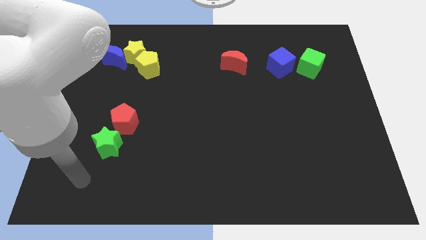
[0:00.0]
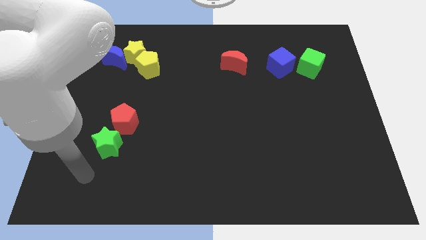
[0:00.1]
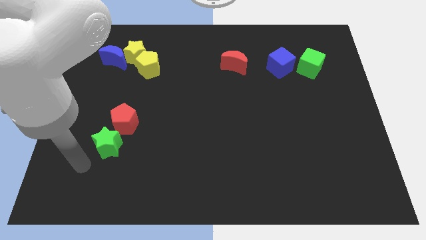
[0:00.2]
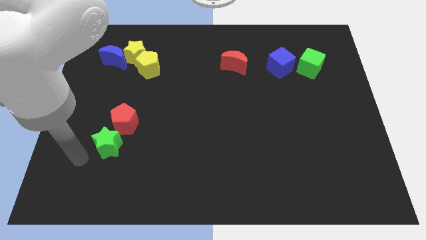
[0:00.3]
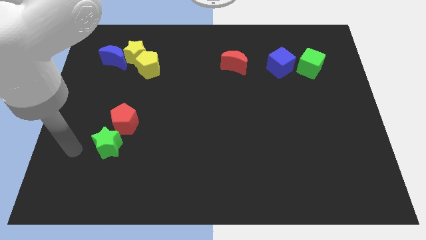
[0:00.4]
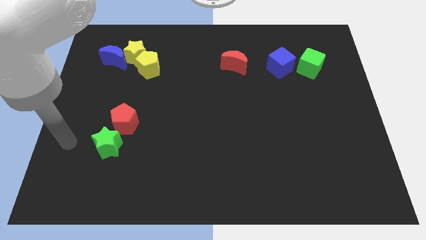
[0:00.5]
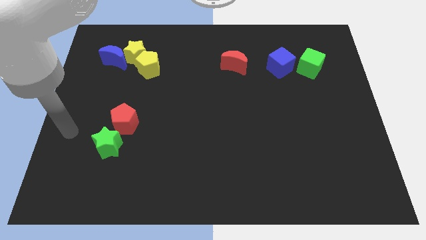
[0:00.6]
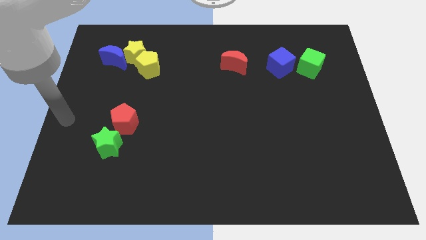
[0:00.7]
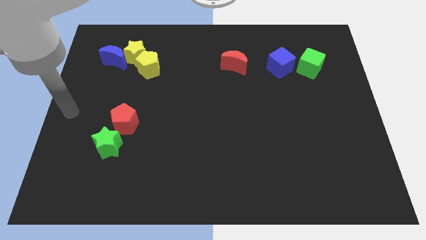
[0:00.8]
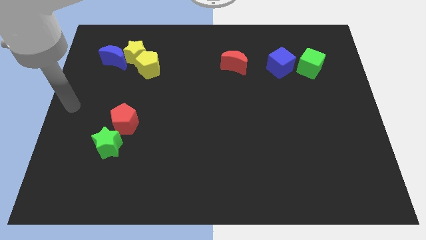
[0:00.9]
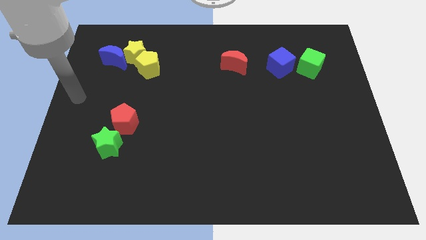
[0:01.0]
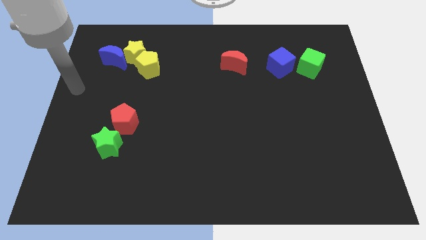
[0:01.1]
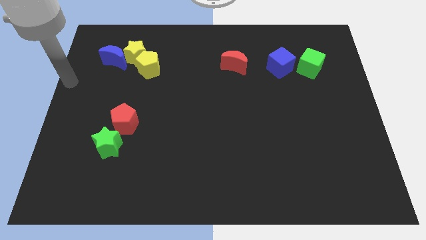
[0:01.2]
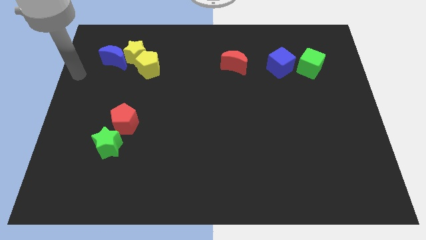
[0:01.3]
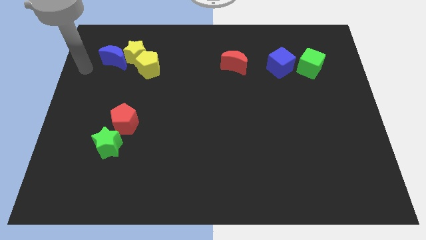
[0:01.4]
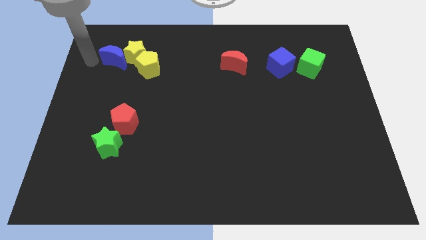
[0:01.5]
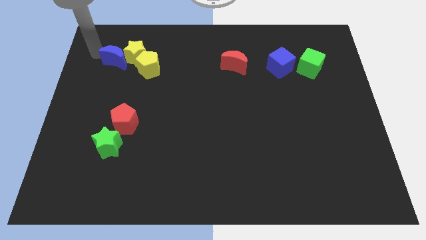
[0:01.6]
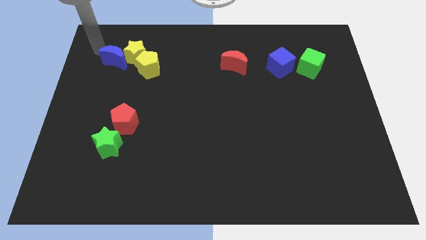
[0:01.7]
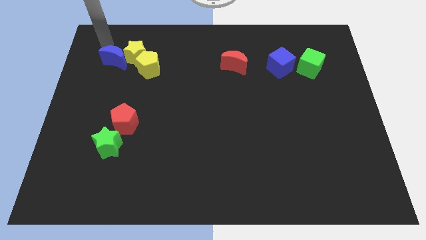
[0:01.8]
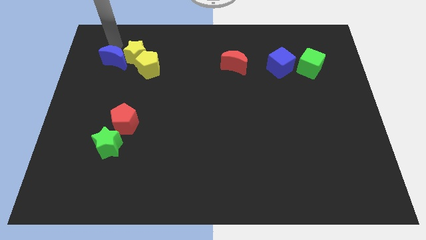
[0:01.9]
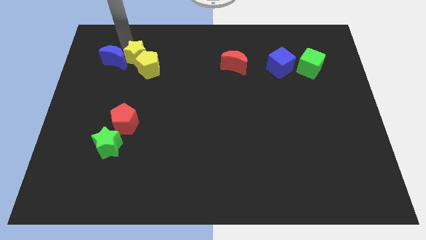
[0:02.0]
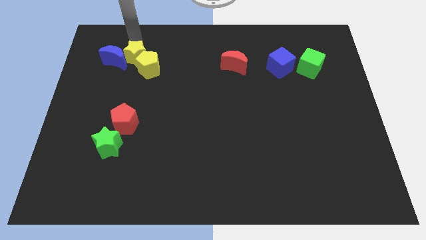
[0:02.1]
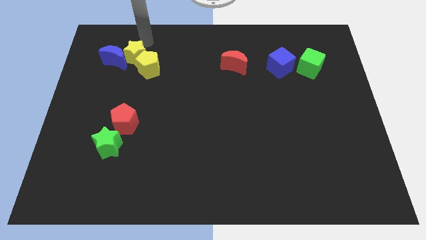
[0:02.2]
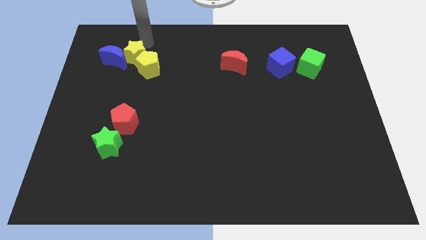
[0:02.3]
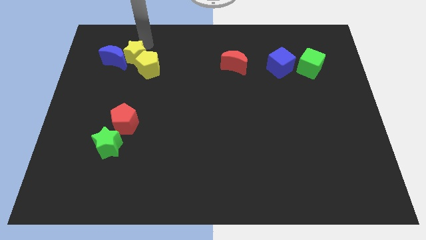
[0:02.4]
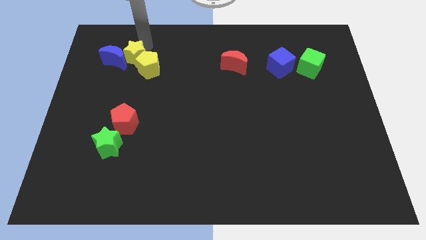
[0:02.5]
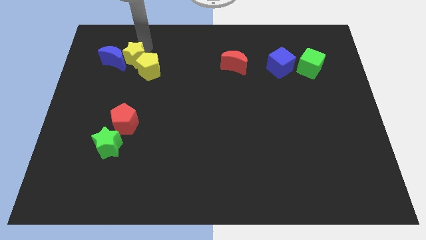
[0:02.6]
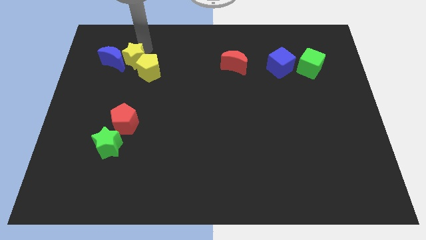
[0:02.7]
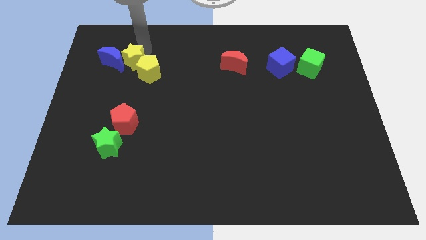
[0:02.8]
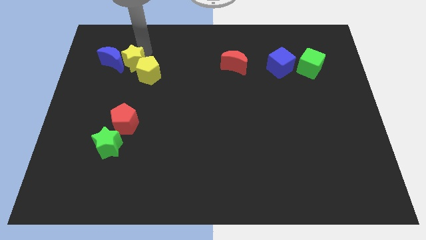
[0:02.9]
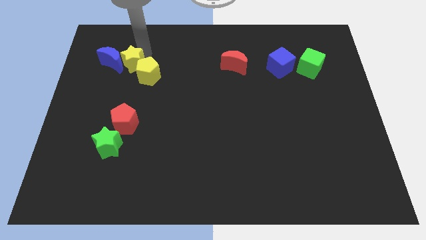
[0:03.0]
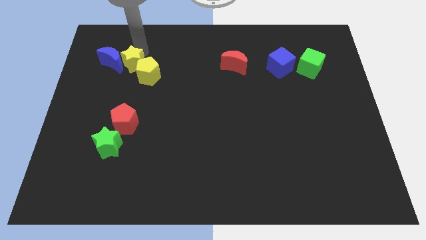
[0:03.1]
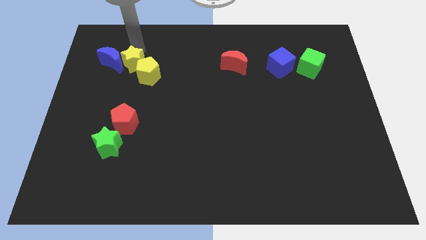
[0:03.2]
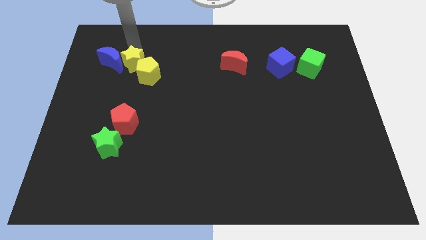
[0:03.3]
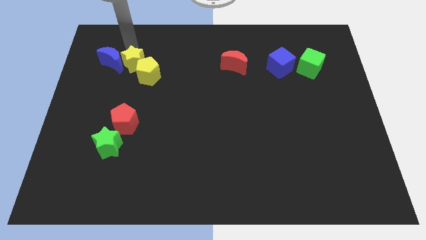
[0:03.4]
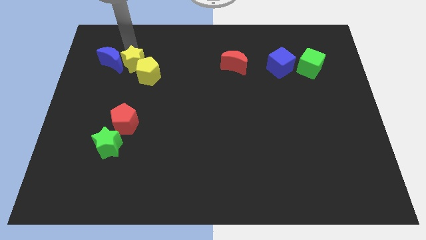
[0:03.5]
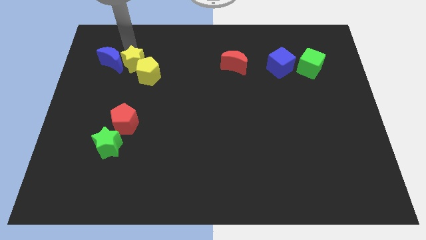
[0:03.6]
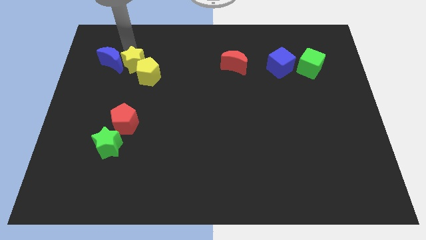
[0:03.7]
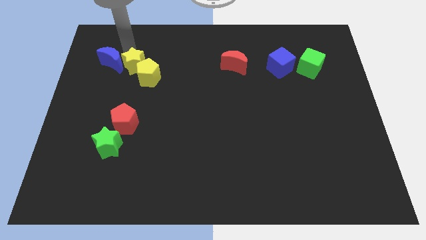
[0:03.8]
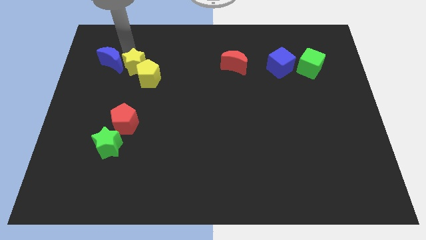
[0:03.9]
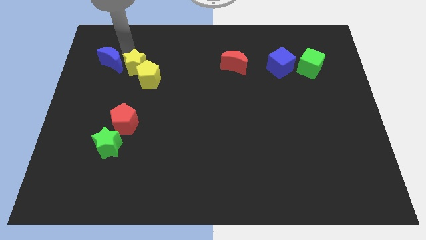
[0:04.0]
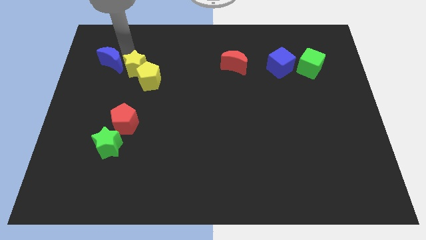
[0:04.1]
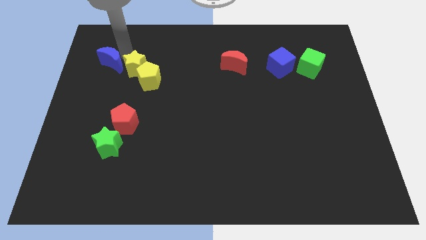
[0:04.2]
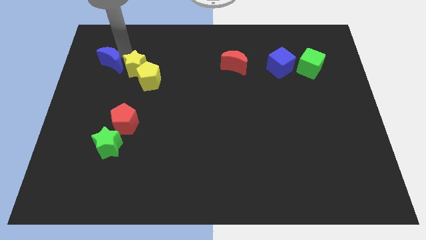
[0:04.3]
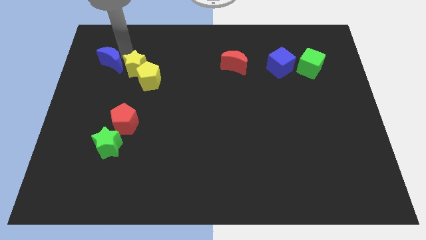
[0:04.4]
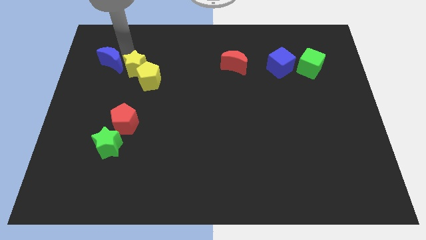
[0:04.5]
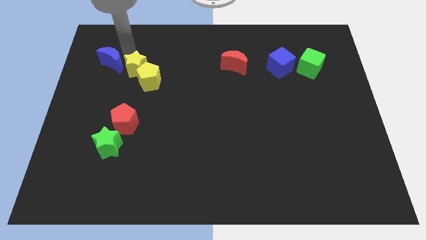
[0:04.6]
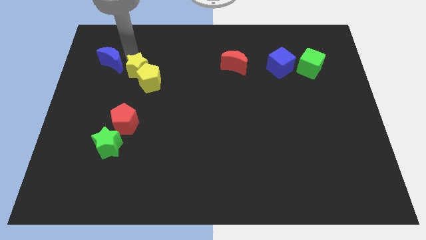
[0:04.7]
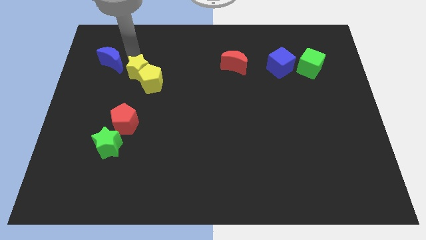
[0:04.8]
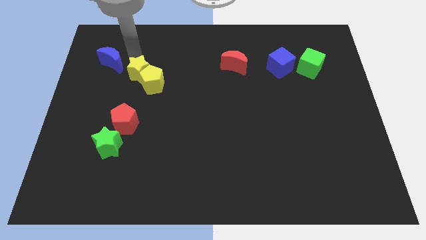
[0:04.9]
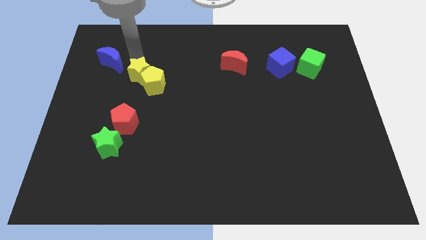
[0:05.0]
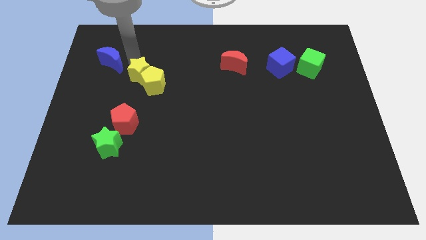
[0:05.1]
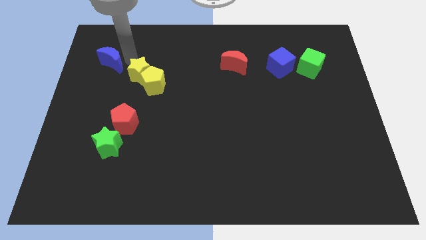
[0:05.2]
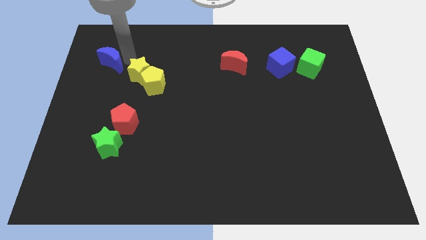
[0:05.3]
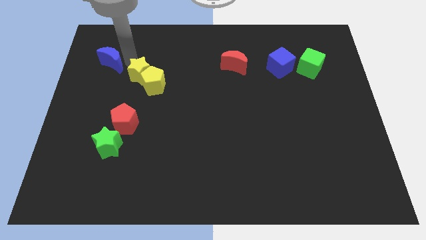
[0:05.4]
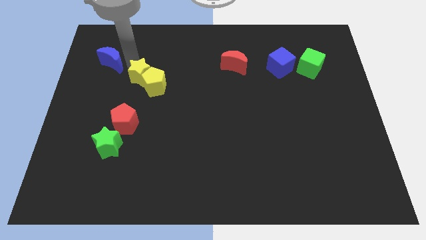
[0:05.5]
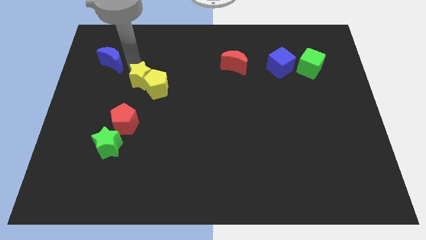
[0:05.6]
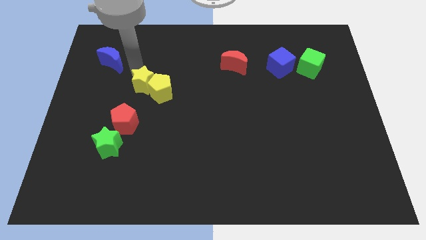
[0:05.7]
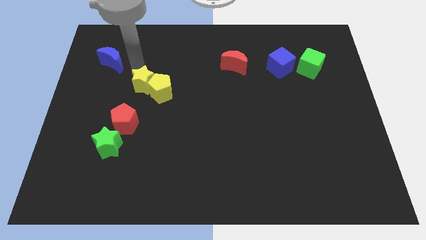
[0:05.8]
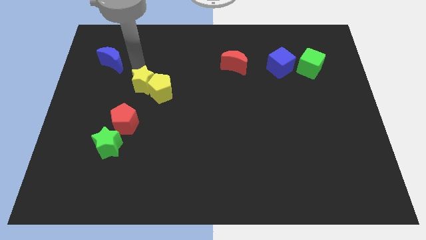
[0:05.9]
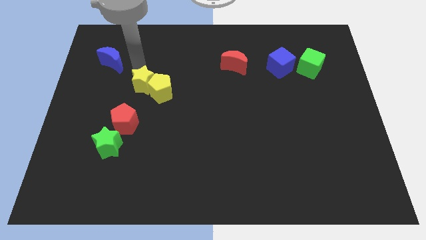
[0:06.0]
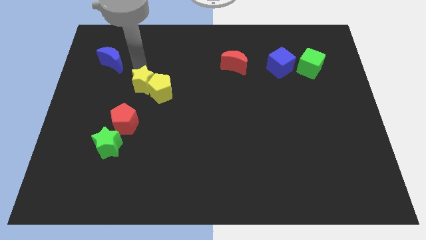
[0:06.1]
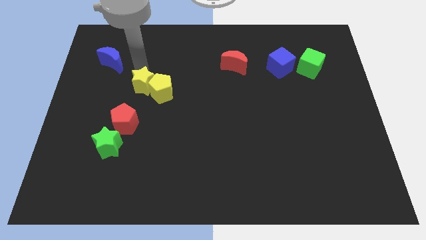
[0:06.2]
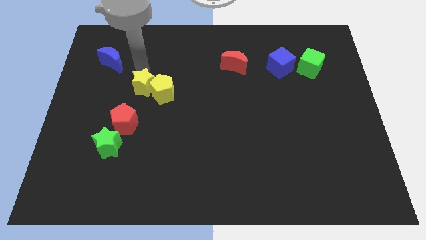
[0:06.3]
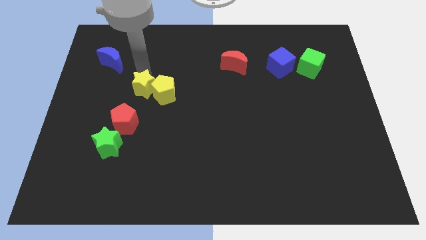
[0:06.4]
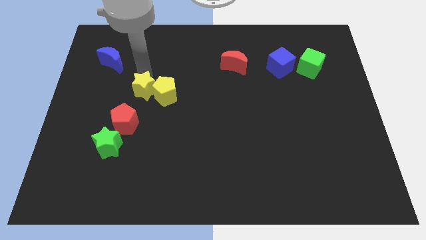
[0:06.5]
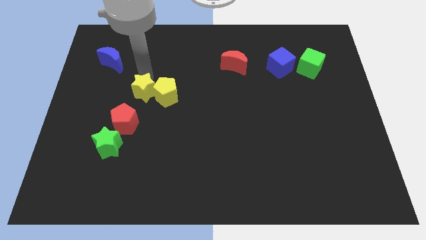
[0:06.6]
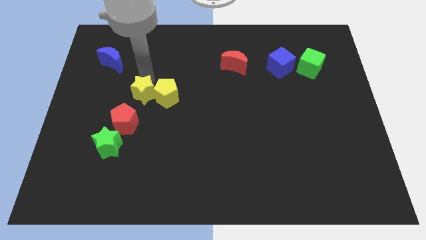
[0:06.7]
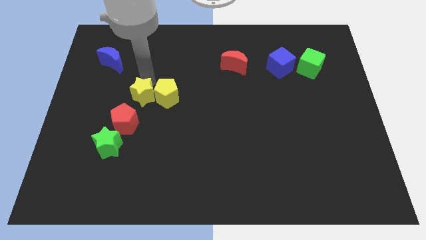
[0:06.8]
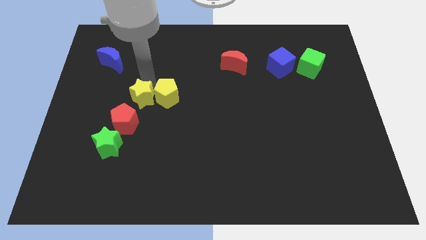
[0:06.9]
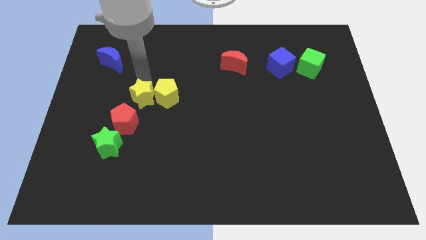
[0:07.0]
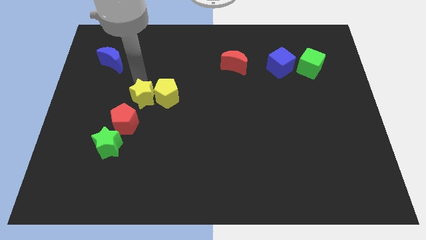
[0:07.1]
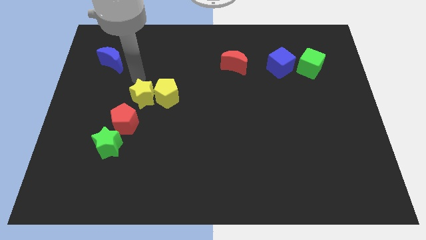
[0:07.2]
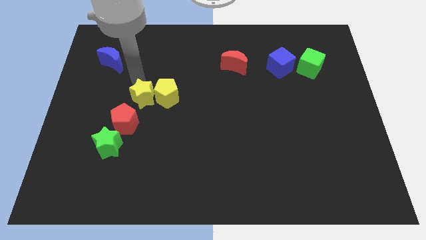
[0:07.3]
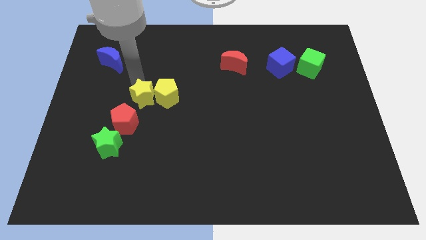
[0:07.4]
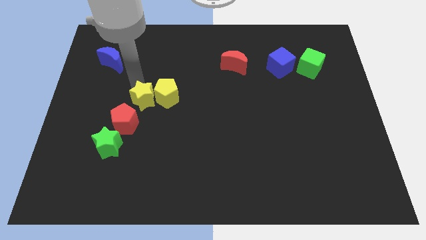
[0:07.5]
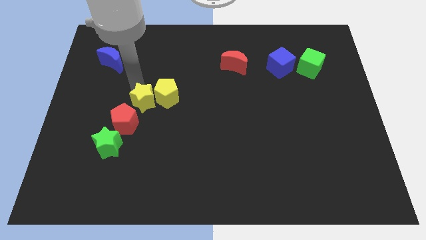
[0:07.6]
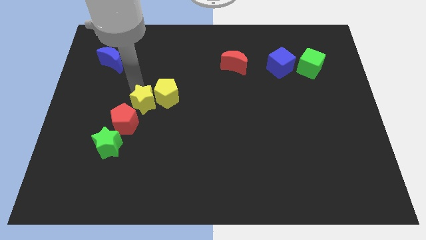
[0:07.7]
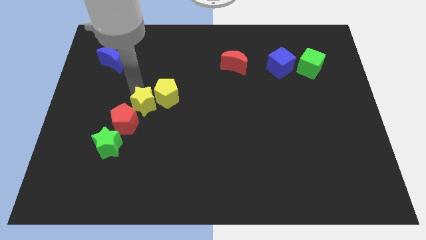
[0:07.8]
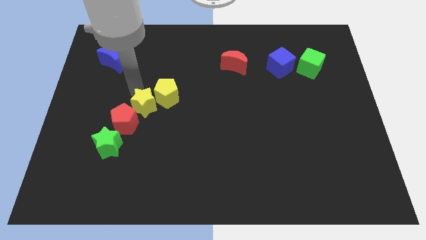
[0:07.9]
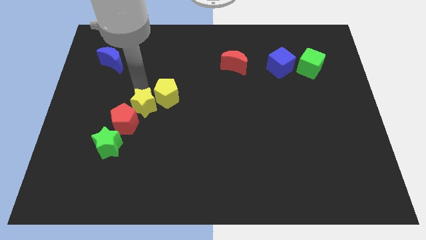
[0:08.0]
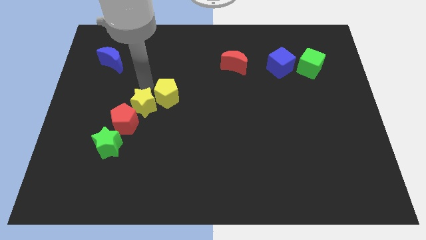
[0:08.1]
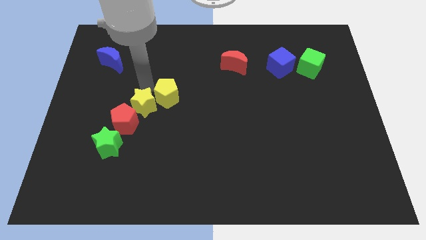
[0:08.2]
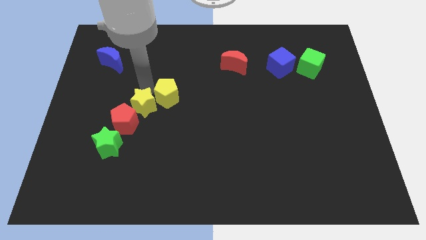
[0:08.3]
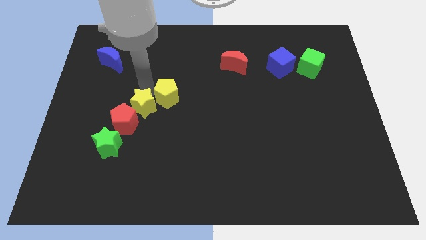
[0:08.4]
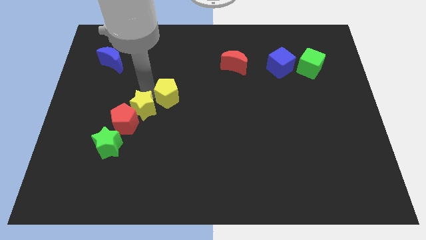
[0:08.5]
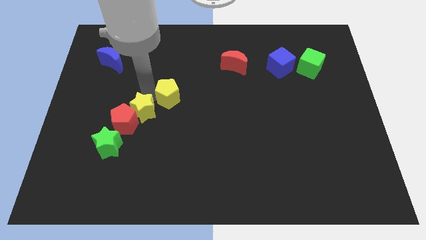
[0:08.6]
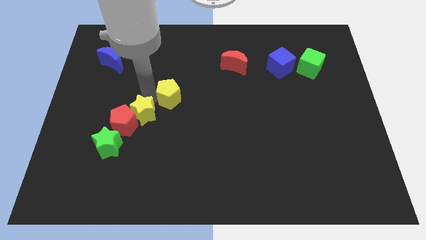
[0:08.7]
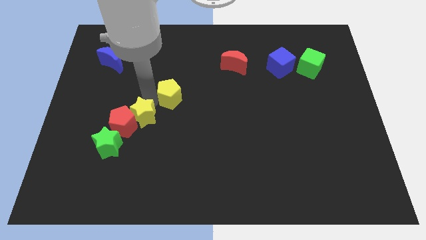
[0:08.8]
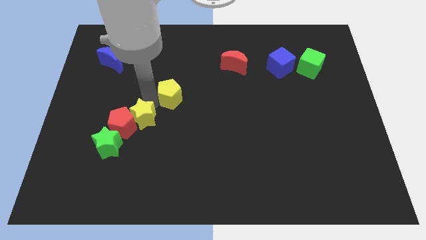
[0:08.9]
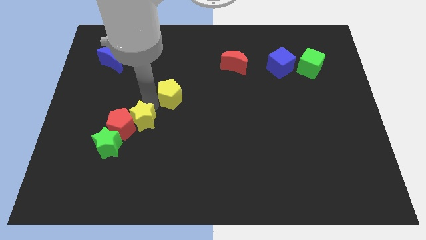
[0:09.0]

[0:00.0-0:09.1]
move the yellow star down
